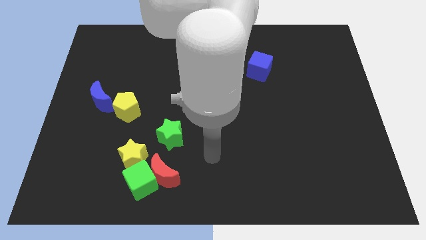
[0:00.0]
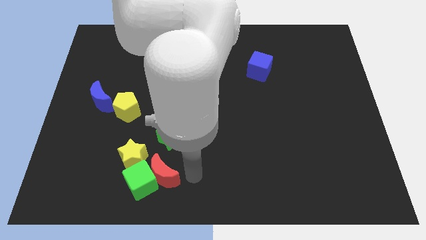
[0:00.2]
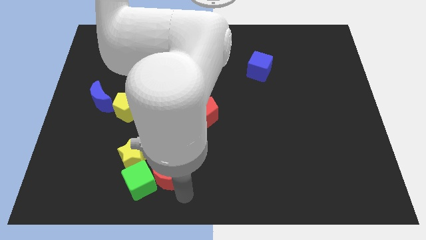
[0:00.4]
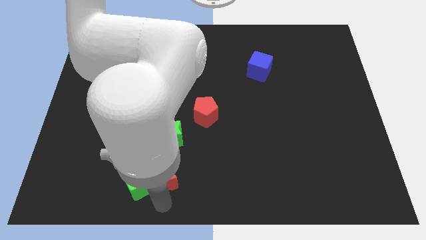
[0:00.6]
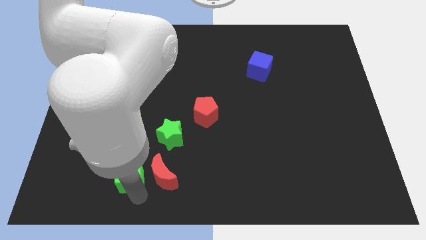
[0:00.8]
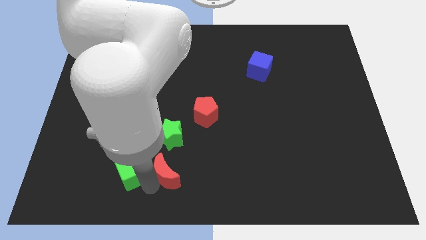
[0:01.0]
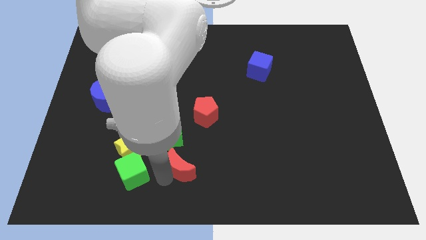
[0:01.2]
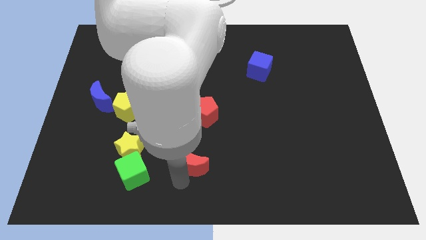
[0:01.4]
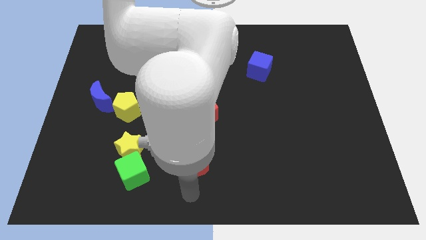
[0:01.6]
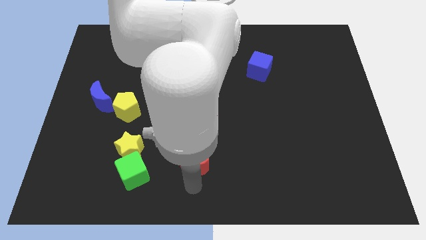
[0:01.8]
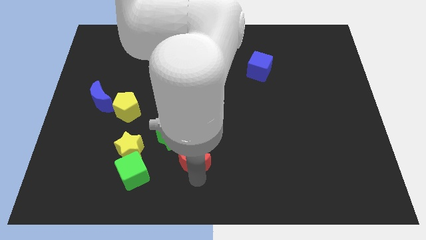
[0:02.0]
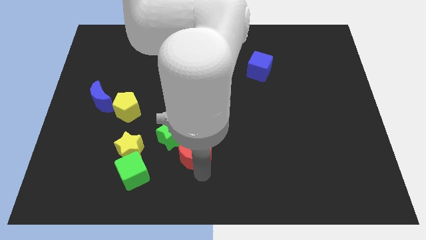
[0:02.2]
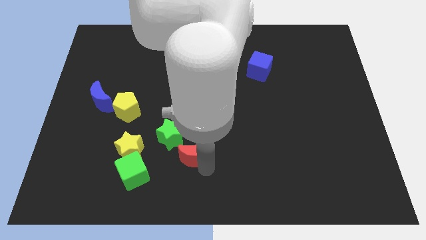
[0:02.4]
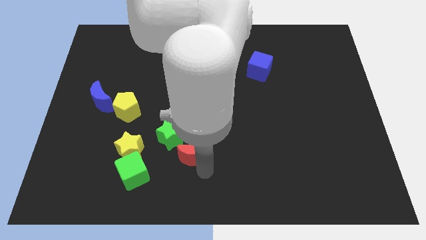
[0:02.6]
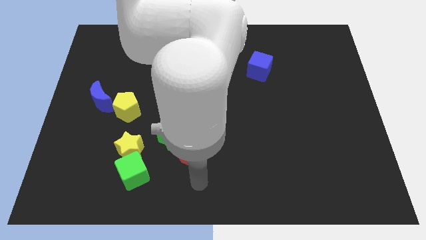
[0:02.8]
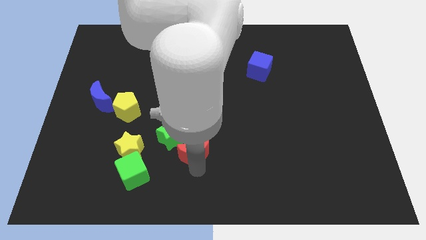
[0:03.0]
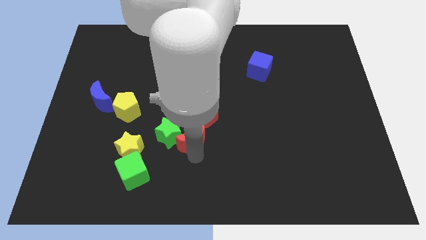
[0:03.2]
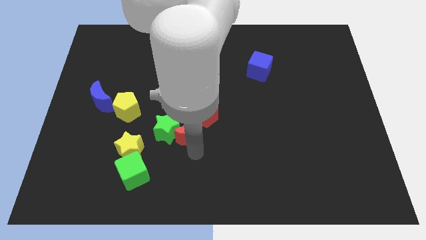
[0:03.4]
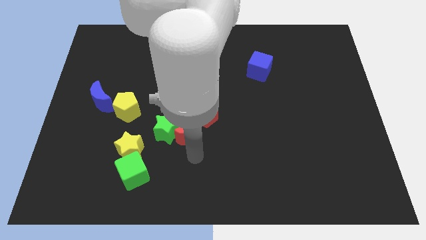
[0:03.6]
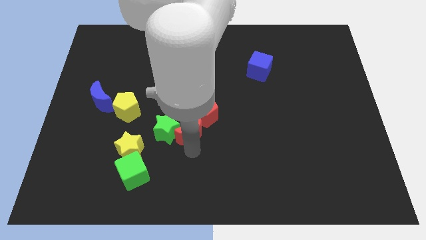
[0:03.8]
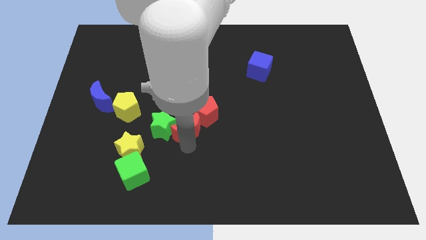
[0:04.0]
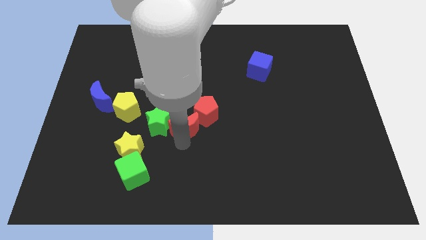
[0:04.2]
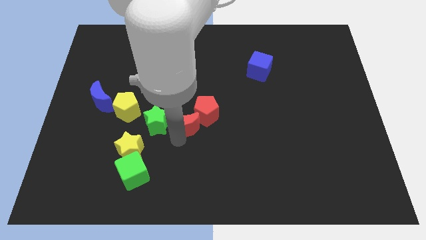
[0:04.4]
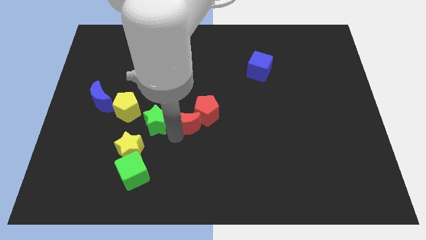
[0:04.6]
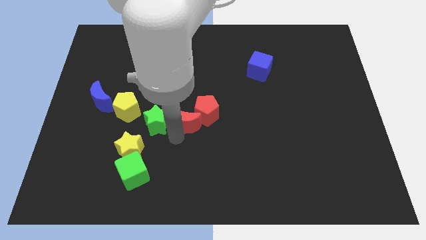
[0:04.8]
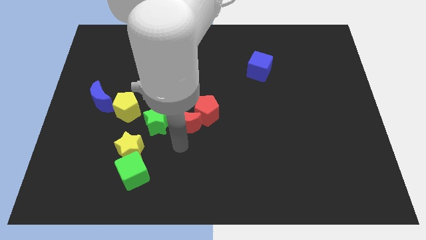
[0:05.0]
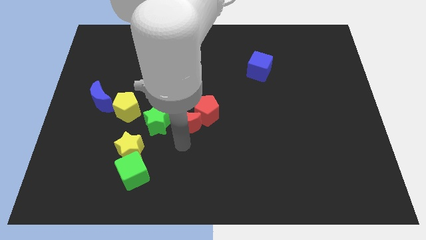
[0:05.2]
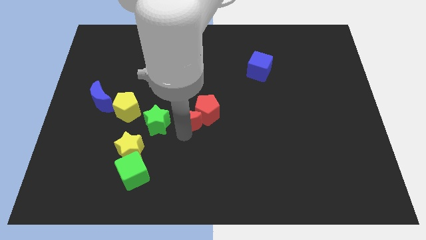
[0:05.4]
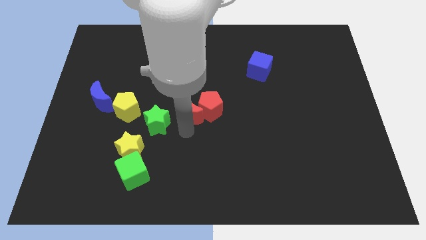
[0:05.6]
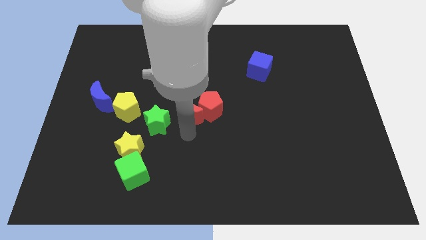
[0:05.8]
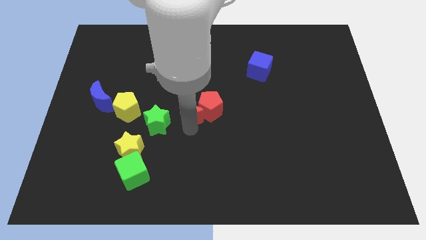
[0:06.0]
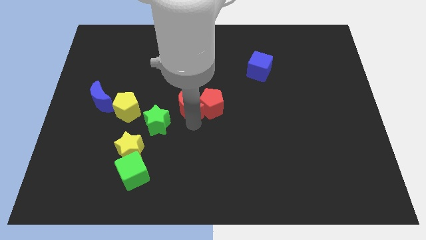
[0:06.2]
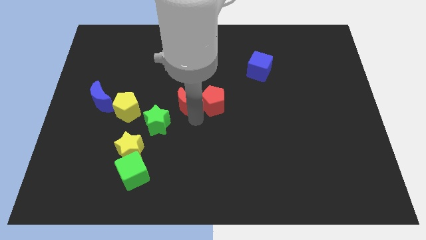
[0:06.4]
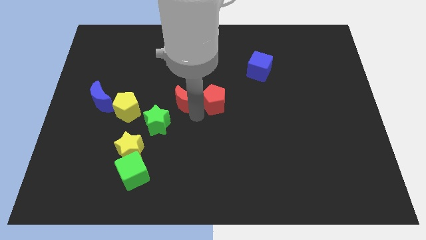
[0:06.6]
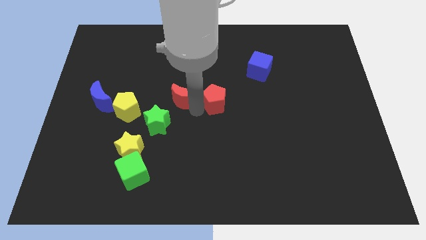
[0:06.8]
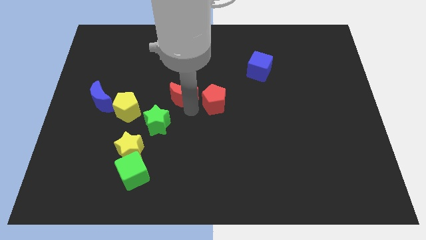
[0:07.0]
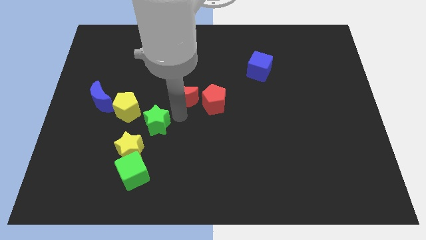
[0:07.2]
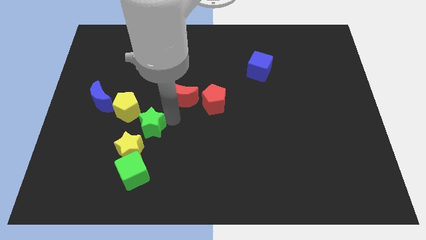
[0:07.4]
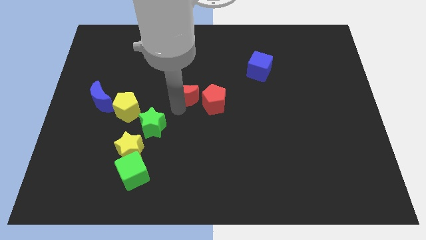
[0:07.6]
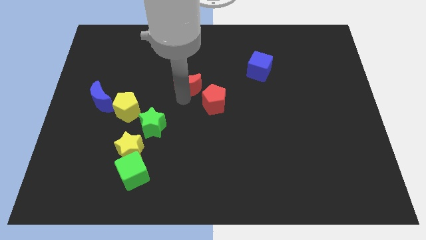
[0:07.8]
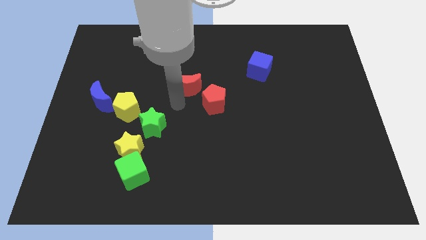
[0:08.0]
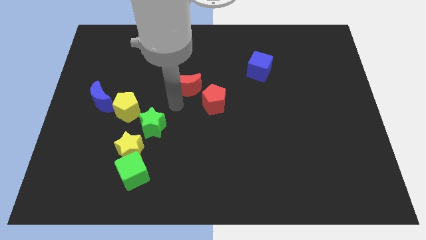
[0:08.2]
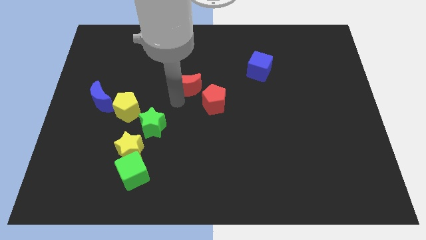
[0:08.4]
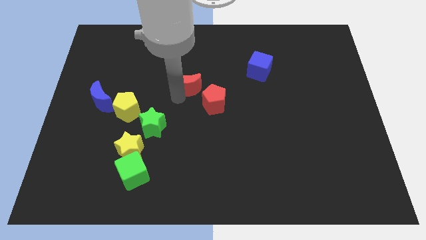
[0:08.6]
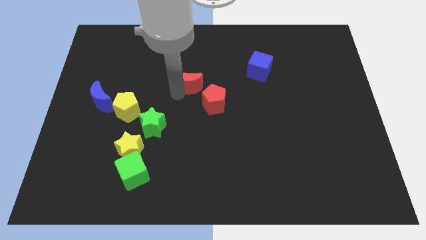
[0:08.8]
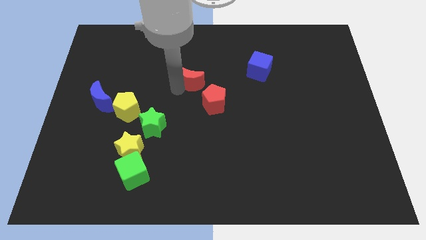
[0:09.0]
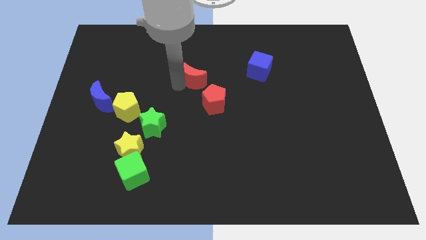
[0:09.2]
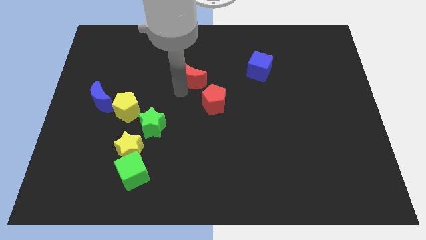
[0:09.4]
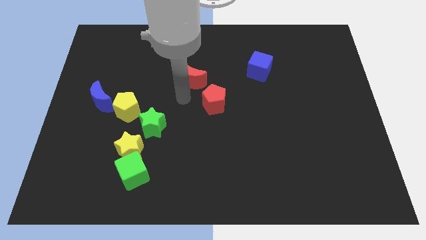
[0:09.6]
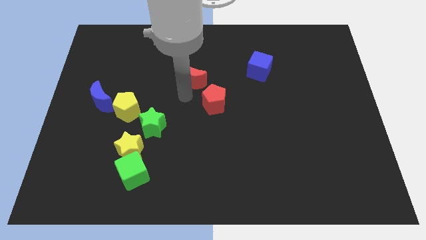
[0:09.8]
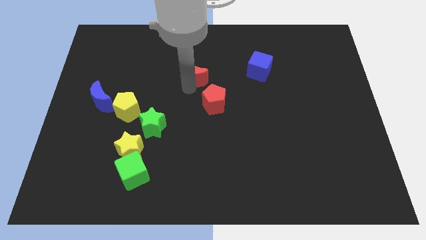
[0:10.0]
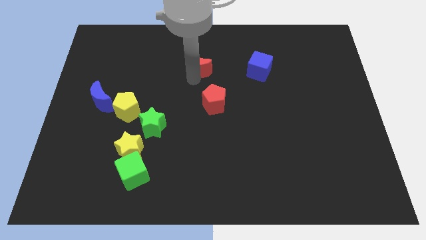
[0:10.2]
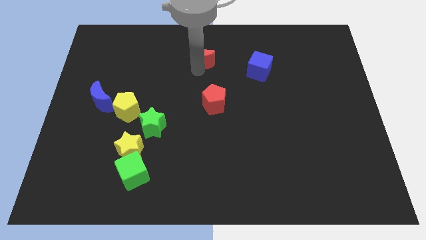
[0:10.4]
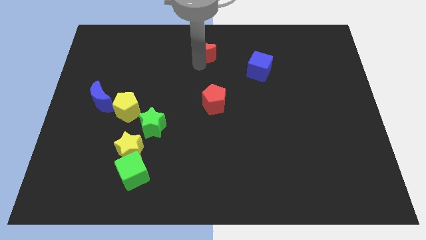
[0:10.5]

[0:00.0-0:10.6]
move the red moon to the top side

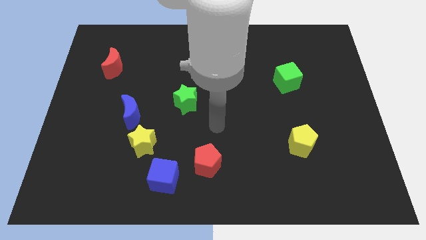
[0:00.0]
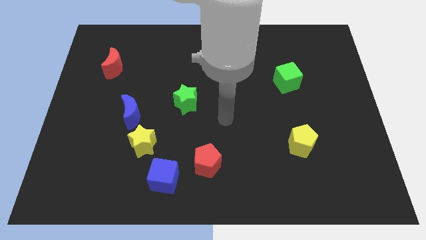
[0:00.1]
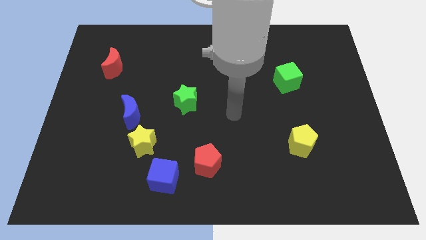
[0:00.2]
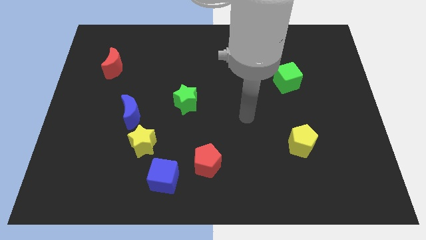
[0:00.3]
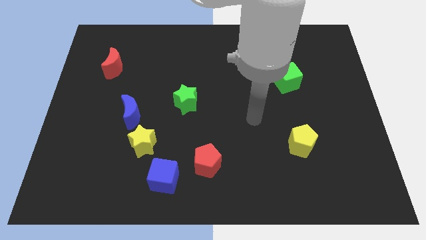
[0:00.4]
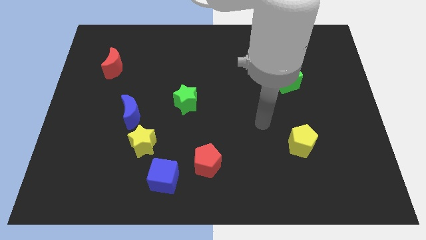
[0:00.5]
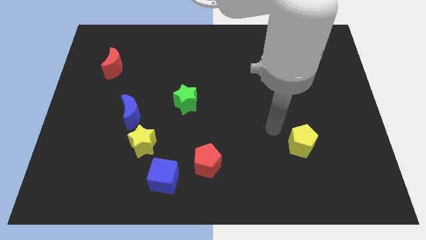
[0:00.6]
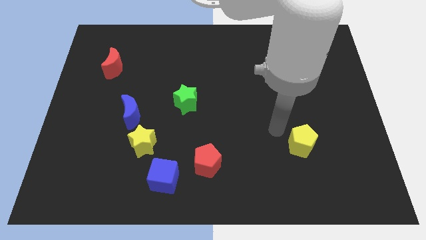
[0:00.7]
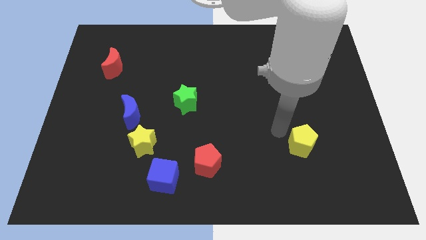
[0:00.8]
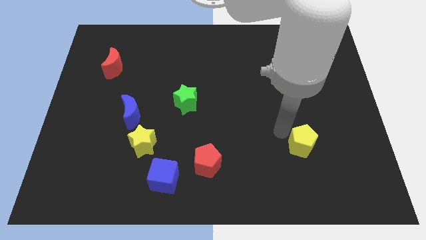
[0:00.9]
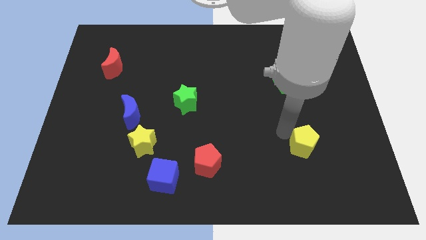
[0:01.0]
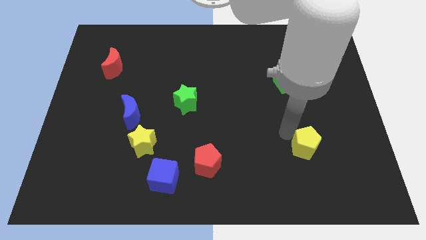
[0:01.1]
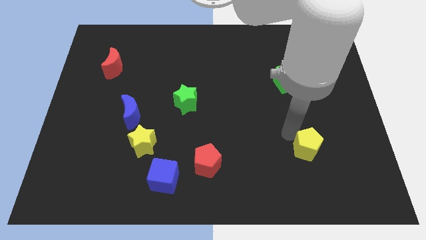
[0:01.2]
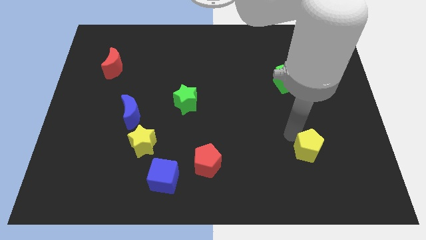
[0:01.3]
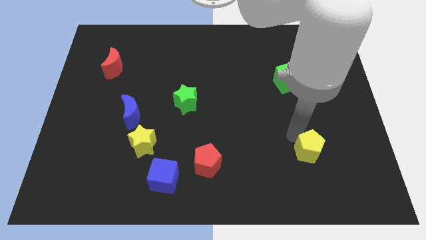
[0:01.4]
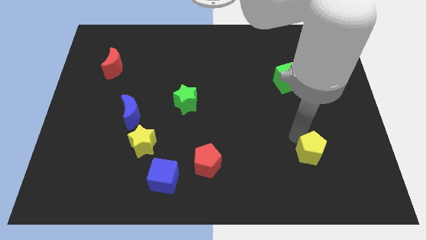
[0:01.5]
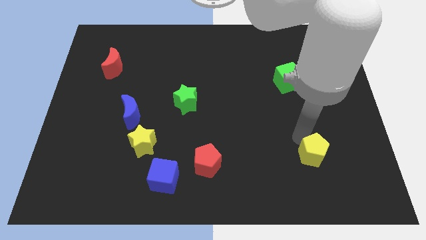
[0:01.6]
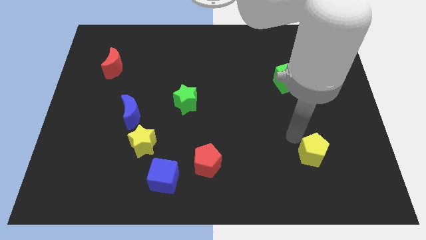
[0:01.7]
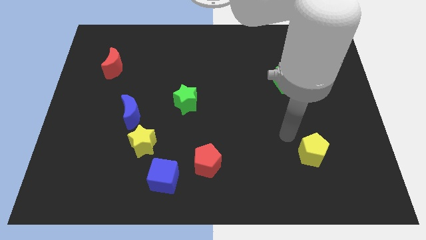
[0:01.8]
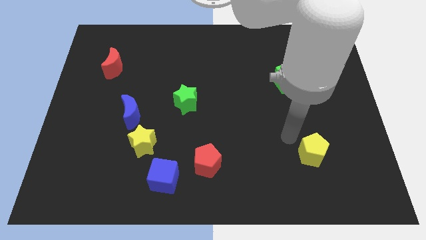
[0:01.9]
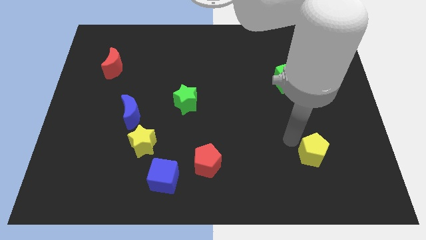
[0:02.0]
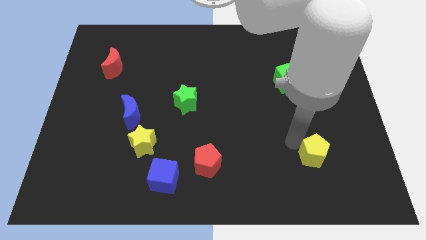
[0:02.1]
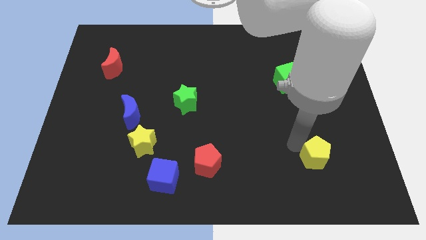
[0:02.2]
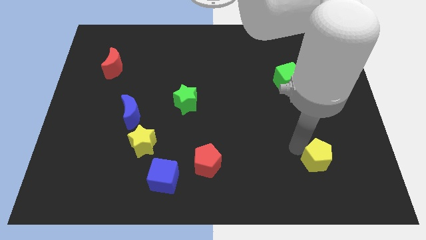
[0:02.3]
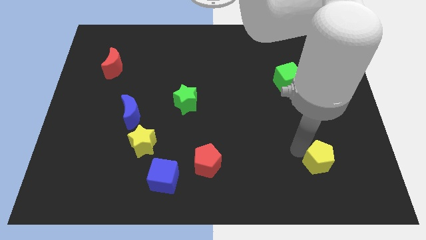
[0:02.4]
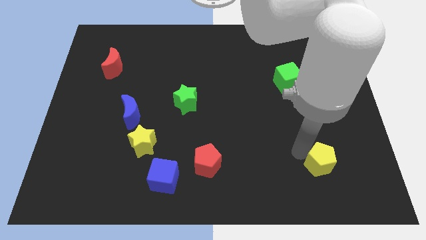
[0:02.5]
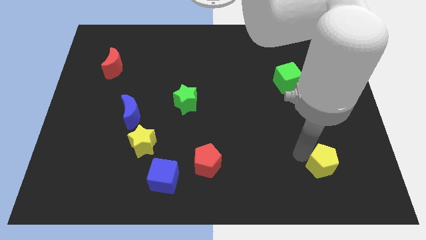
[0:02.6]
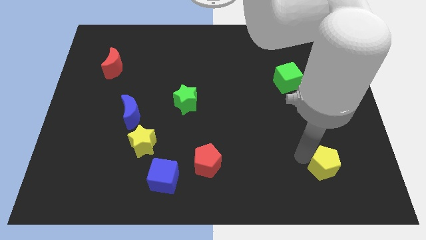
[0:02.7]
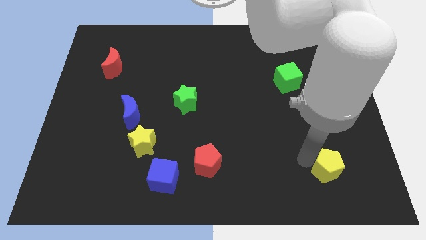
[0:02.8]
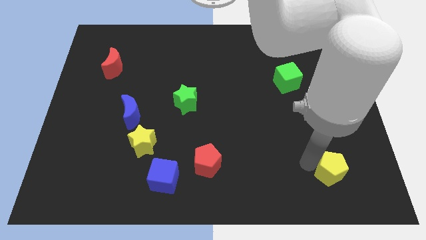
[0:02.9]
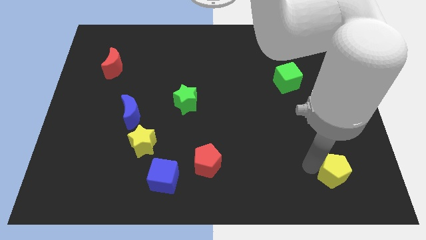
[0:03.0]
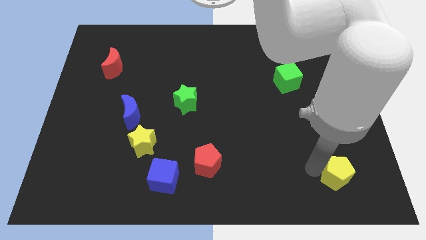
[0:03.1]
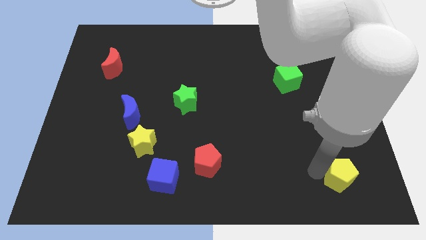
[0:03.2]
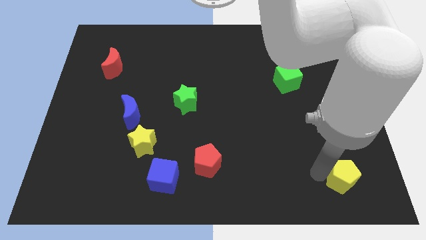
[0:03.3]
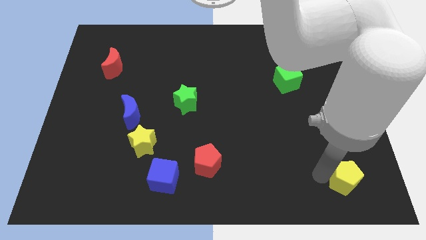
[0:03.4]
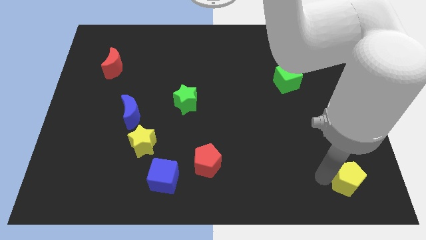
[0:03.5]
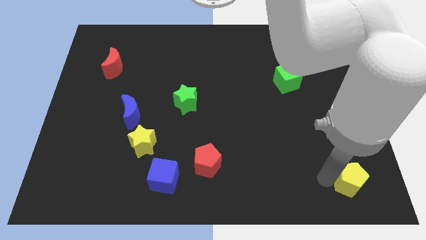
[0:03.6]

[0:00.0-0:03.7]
push the yellow pentagon to the bottom right of the board
